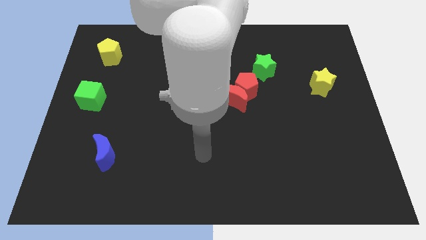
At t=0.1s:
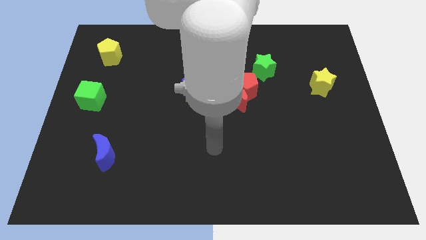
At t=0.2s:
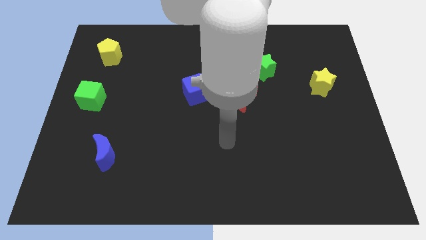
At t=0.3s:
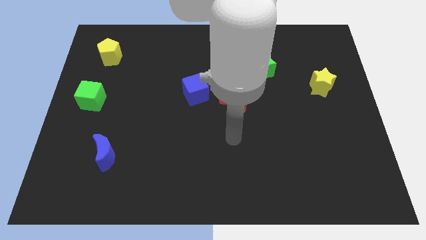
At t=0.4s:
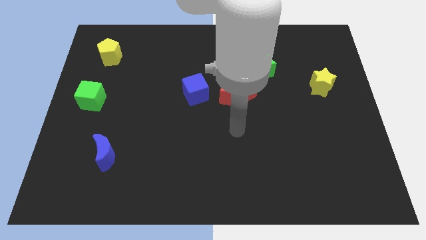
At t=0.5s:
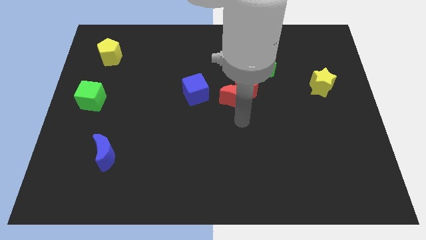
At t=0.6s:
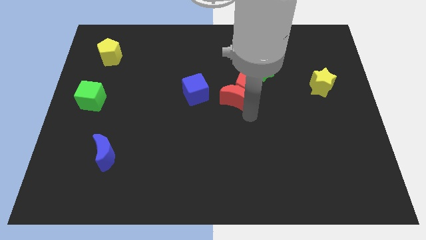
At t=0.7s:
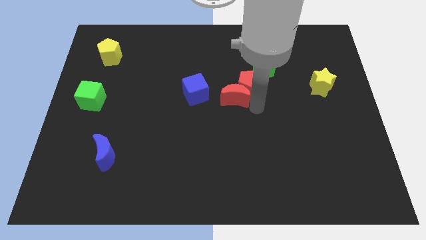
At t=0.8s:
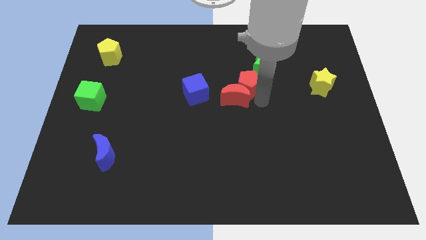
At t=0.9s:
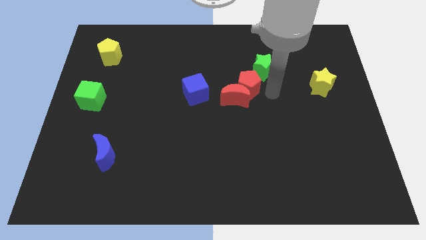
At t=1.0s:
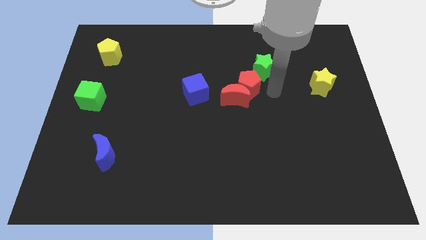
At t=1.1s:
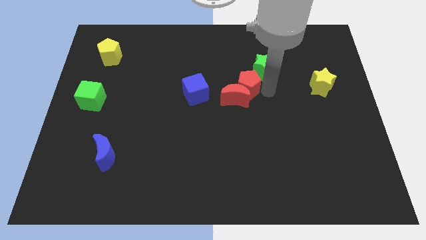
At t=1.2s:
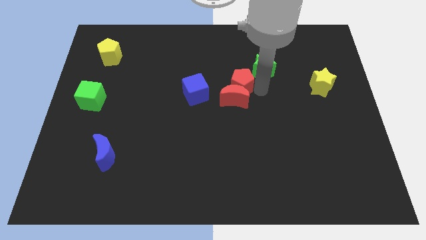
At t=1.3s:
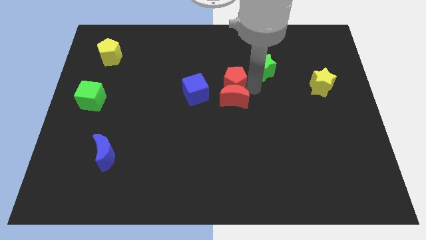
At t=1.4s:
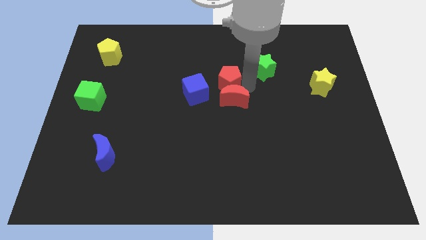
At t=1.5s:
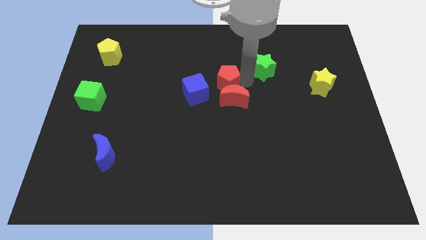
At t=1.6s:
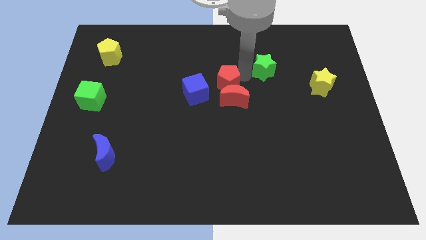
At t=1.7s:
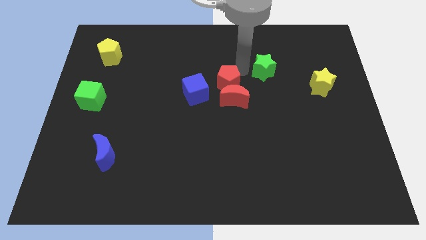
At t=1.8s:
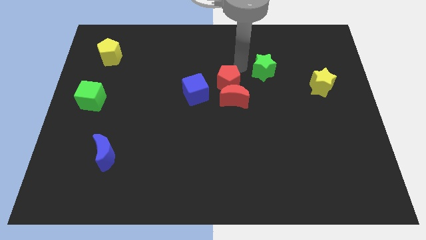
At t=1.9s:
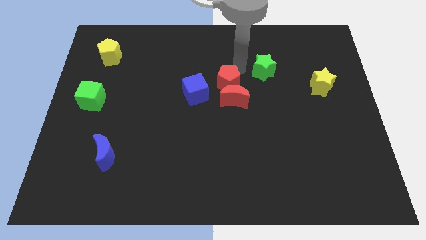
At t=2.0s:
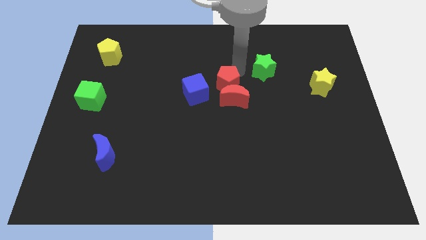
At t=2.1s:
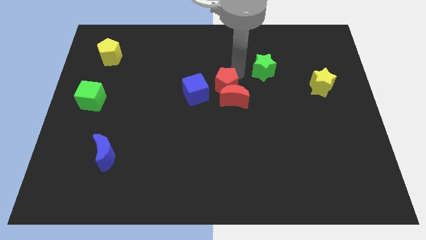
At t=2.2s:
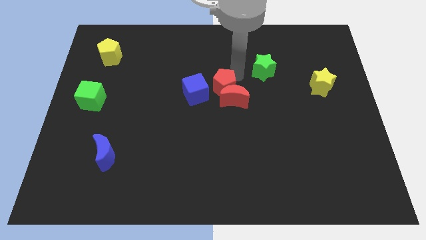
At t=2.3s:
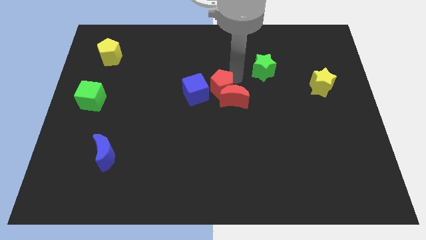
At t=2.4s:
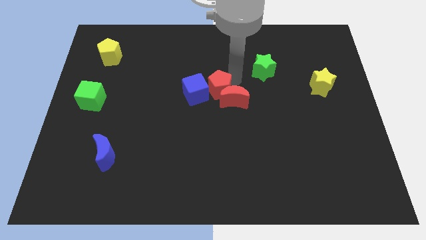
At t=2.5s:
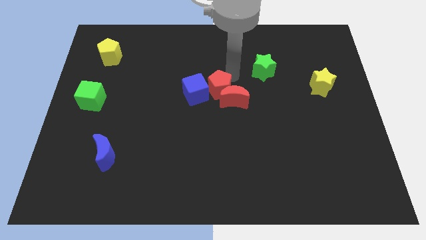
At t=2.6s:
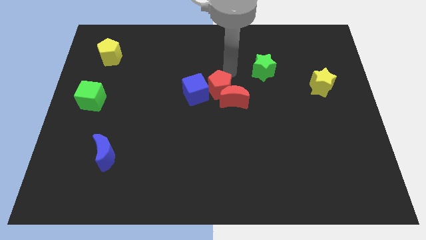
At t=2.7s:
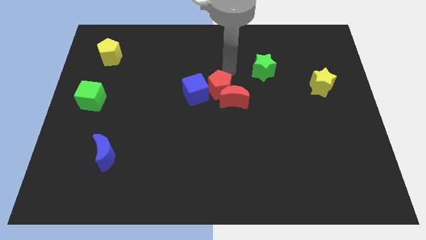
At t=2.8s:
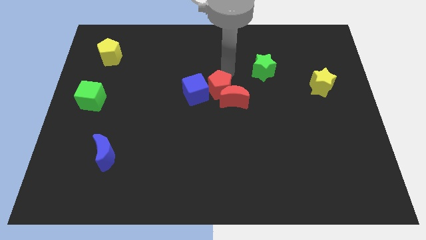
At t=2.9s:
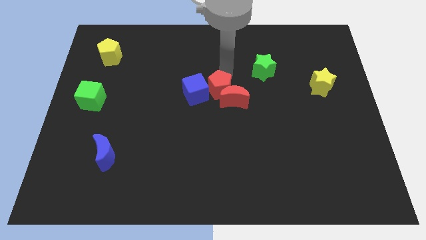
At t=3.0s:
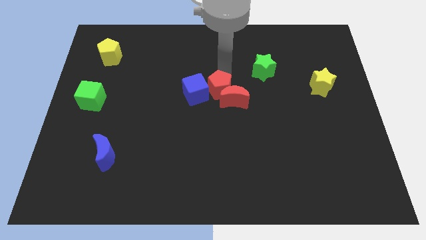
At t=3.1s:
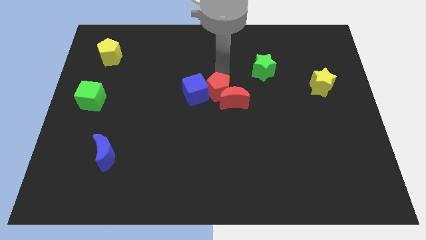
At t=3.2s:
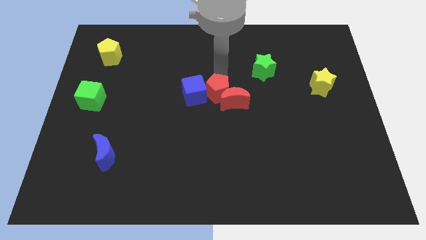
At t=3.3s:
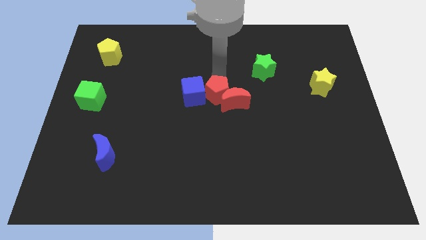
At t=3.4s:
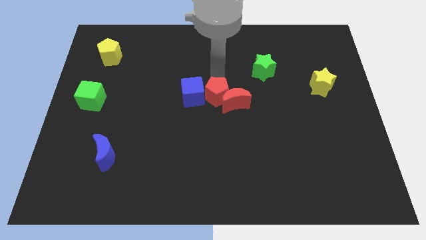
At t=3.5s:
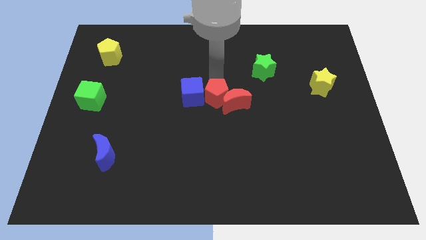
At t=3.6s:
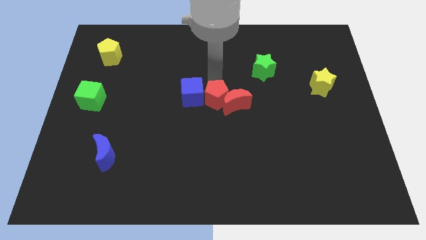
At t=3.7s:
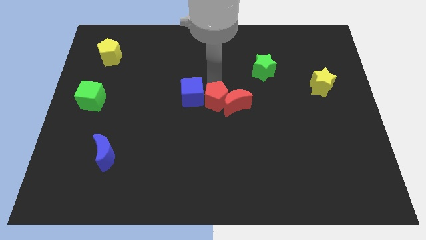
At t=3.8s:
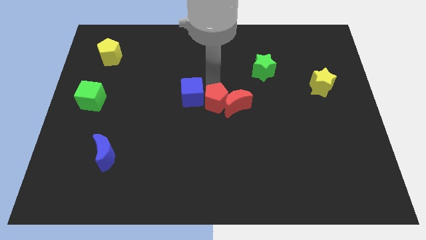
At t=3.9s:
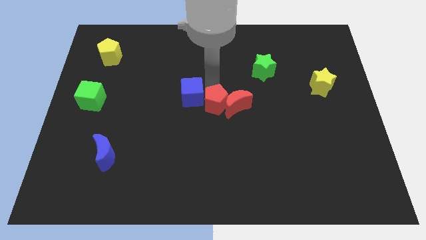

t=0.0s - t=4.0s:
separate the red pentagon from the red moon and green star

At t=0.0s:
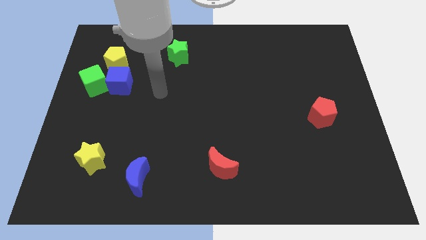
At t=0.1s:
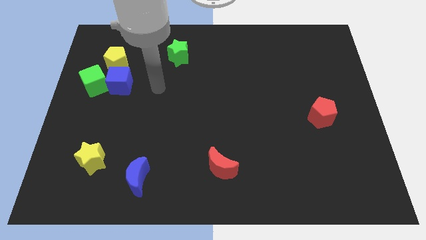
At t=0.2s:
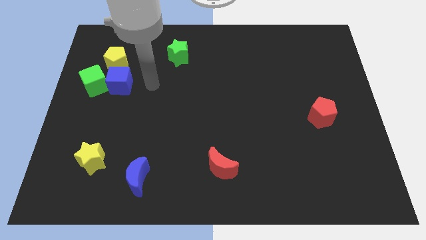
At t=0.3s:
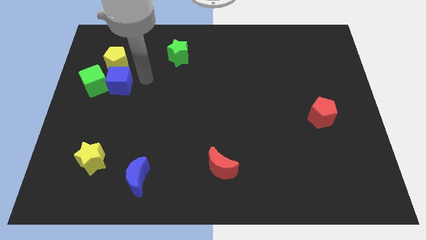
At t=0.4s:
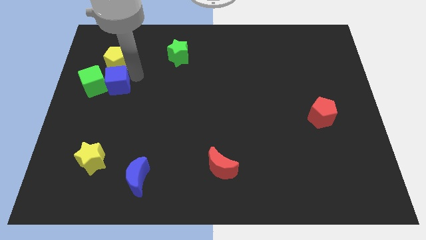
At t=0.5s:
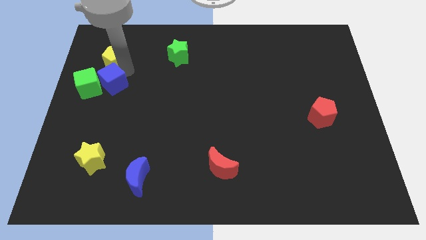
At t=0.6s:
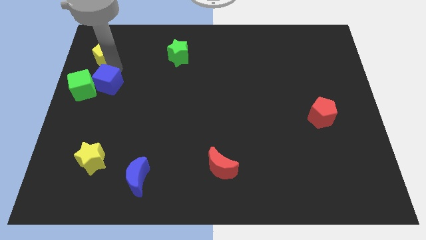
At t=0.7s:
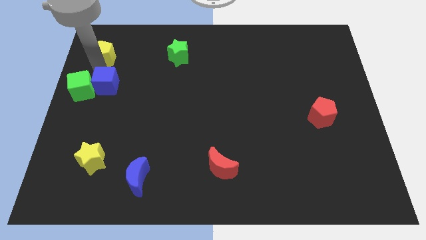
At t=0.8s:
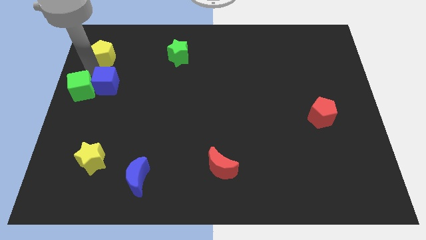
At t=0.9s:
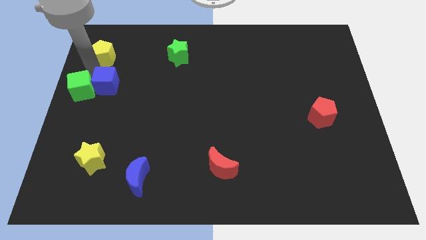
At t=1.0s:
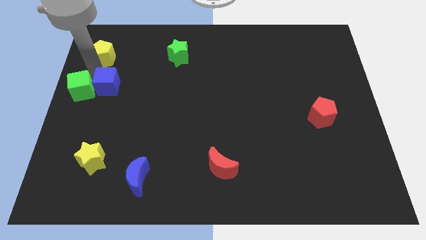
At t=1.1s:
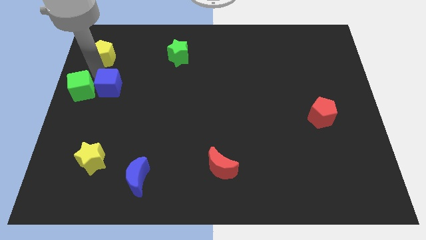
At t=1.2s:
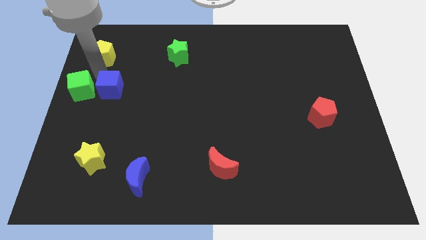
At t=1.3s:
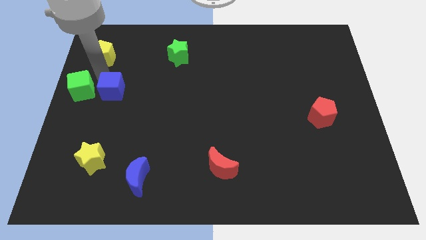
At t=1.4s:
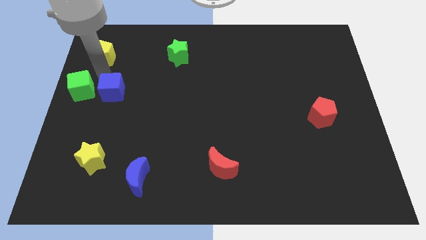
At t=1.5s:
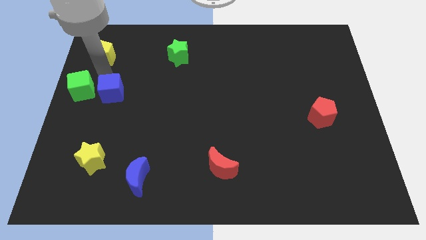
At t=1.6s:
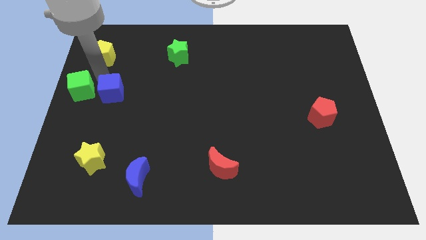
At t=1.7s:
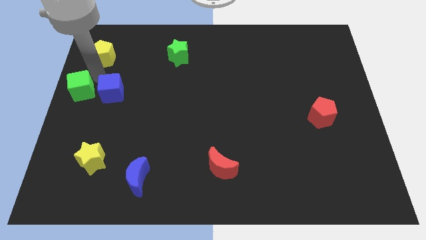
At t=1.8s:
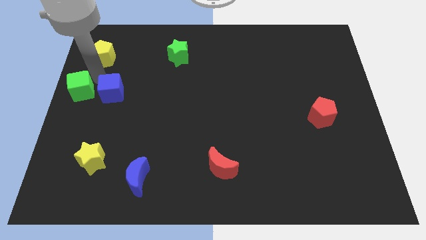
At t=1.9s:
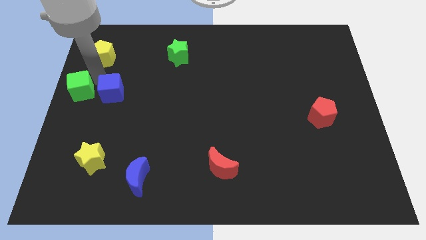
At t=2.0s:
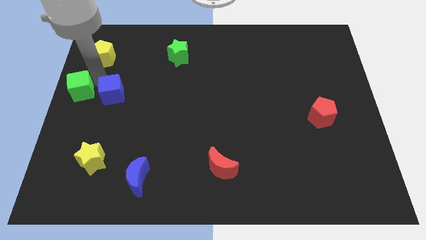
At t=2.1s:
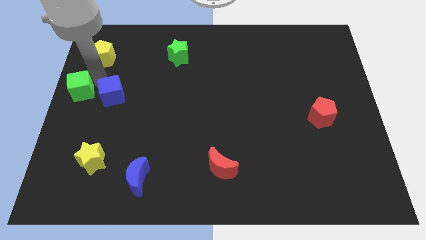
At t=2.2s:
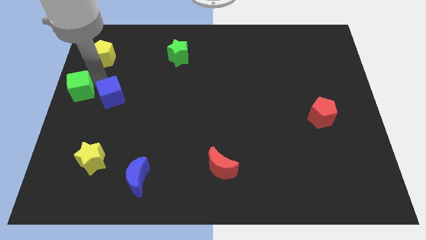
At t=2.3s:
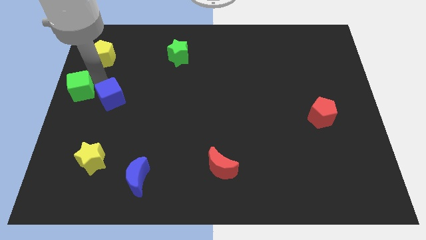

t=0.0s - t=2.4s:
pull the blue cube apart from the green cube and yellow pentagon

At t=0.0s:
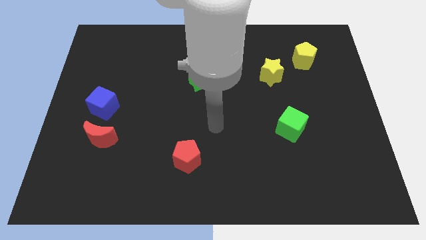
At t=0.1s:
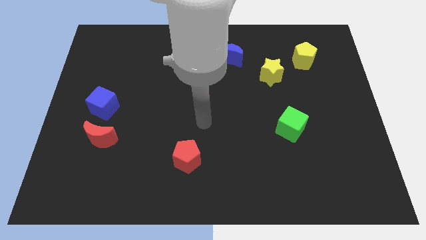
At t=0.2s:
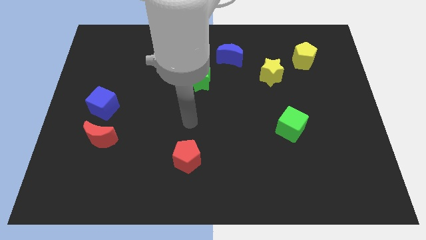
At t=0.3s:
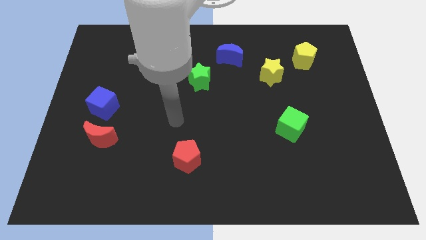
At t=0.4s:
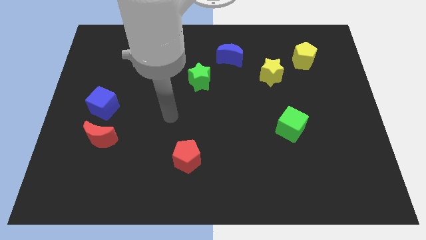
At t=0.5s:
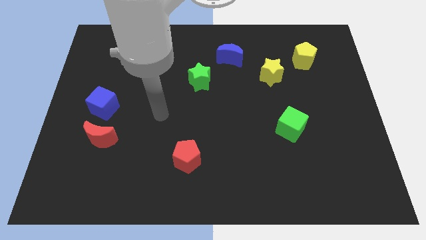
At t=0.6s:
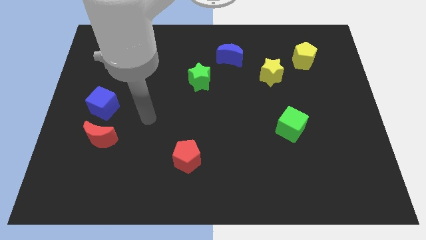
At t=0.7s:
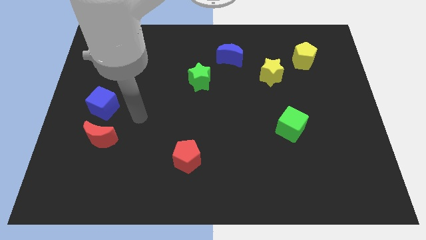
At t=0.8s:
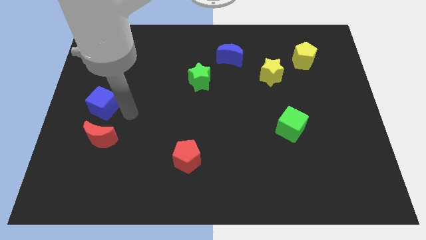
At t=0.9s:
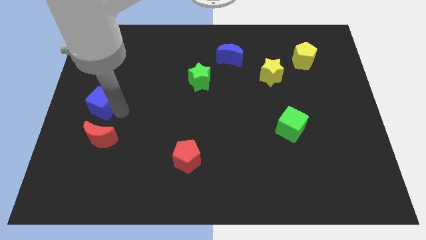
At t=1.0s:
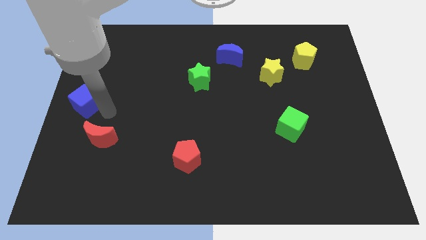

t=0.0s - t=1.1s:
separate the red moon from the blue cube

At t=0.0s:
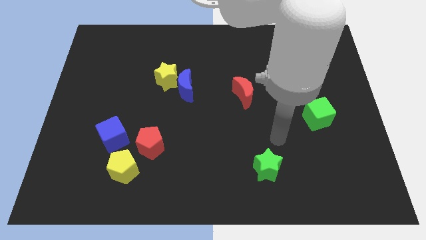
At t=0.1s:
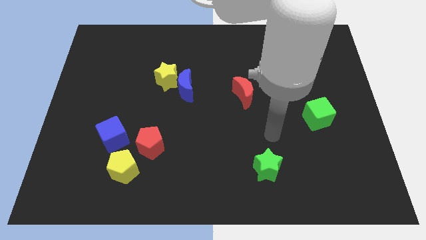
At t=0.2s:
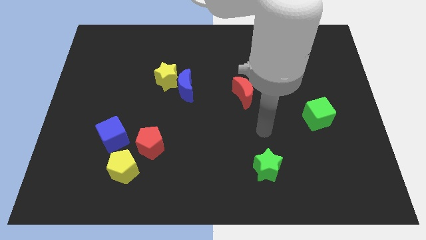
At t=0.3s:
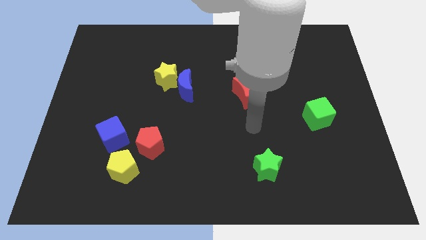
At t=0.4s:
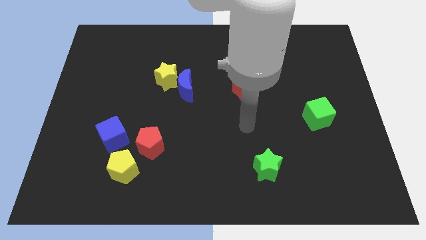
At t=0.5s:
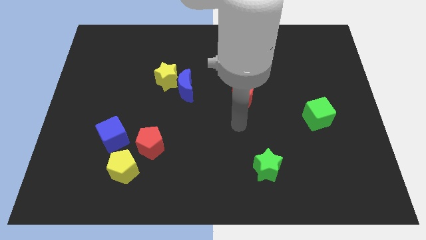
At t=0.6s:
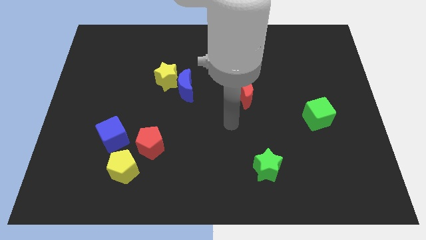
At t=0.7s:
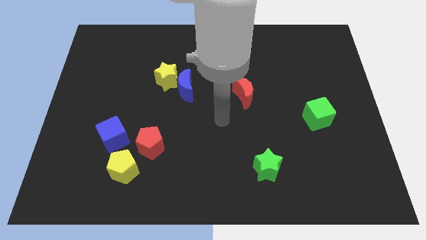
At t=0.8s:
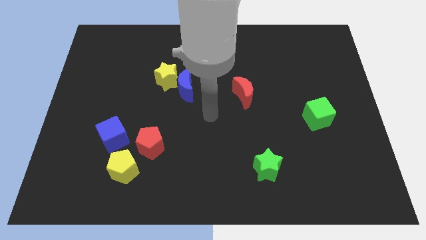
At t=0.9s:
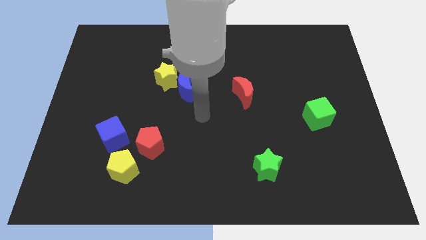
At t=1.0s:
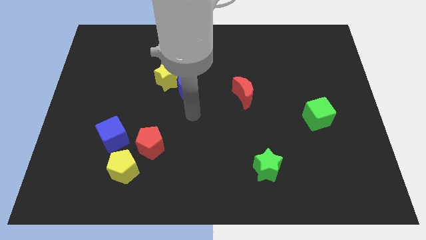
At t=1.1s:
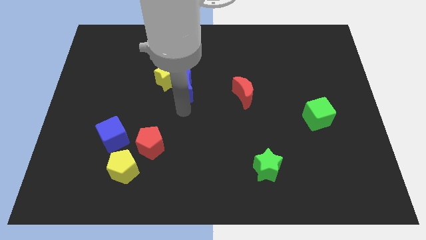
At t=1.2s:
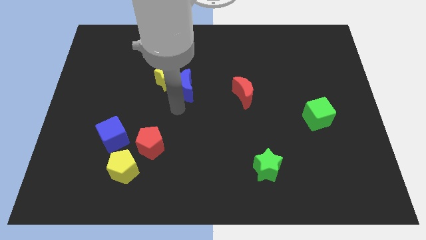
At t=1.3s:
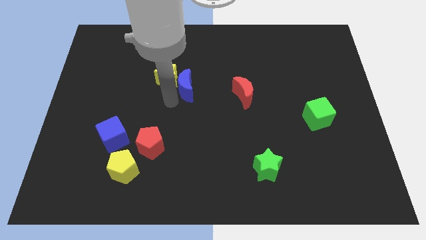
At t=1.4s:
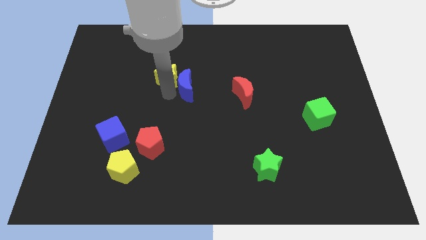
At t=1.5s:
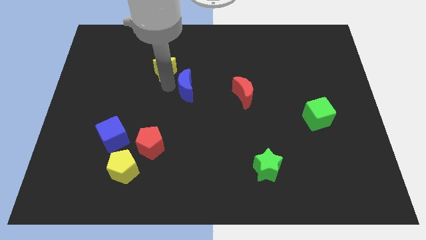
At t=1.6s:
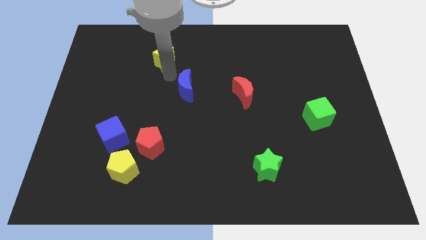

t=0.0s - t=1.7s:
pull the blue moon apart from the yellow star
